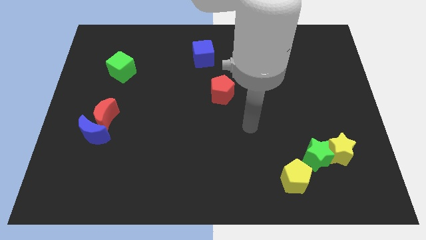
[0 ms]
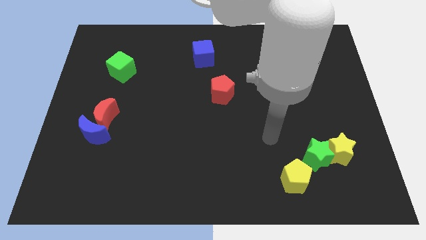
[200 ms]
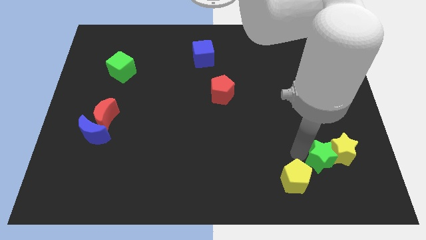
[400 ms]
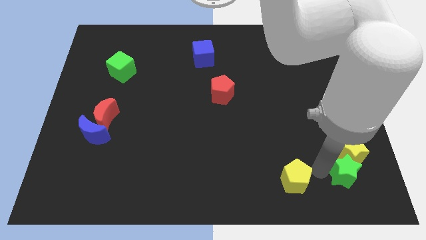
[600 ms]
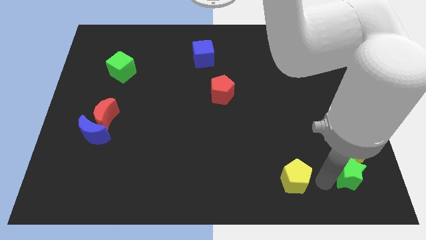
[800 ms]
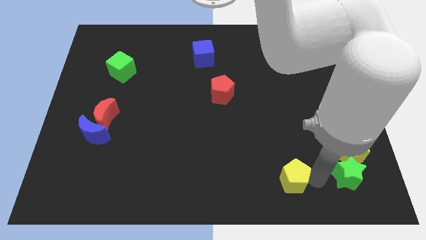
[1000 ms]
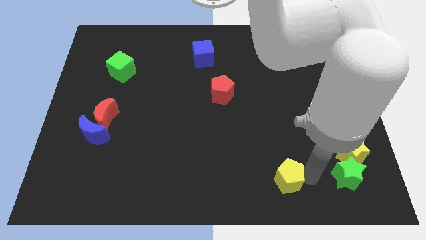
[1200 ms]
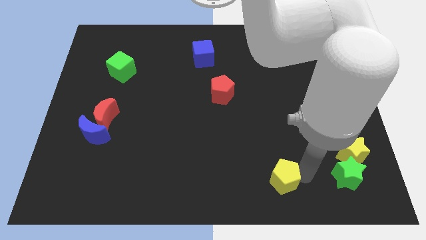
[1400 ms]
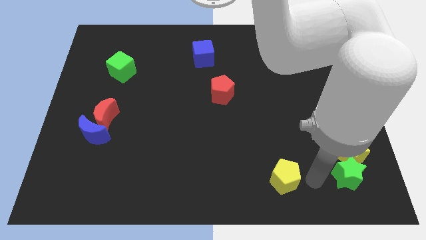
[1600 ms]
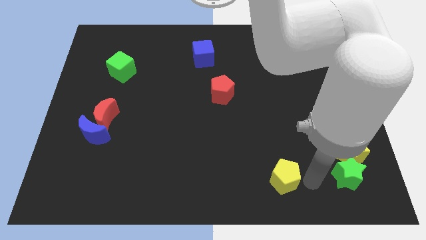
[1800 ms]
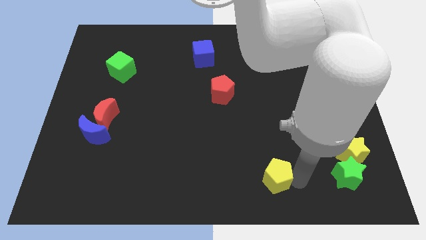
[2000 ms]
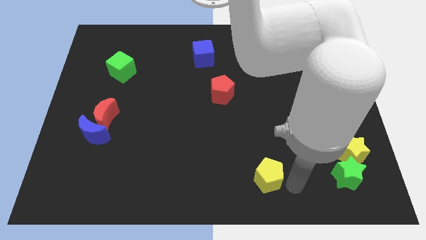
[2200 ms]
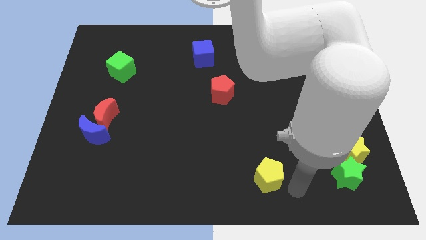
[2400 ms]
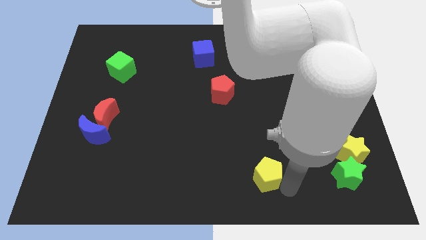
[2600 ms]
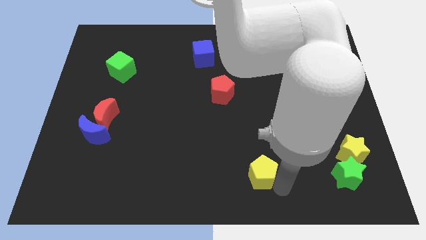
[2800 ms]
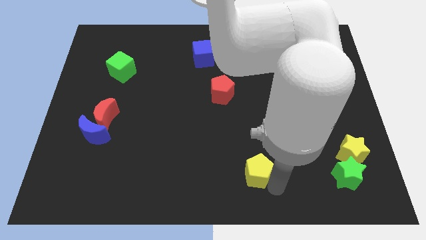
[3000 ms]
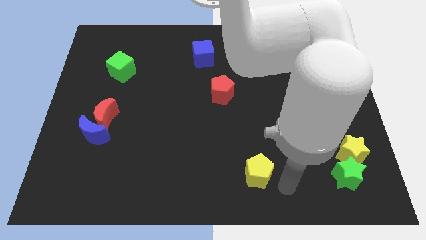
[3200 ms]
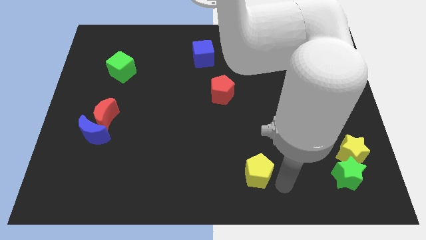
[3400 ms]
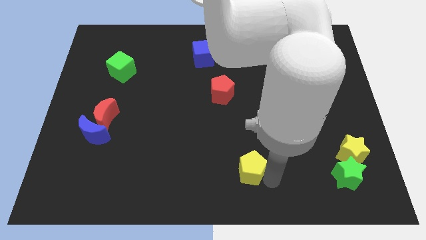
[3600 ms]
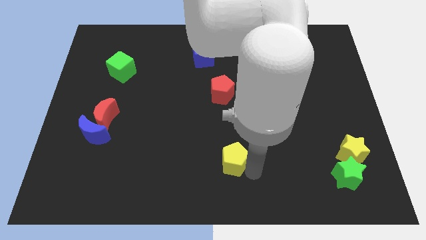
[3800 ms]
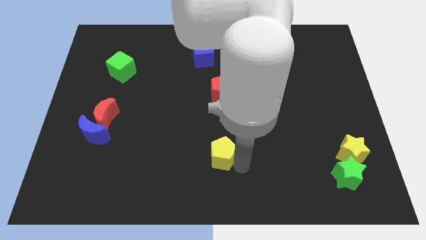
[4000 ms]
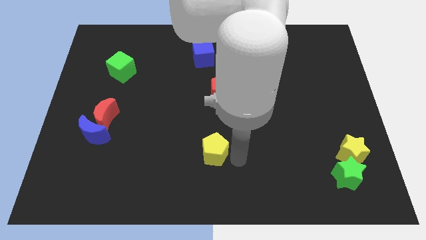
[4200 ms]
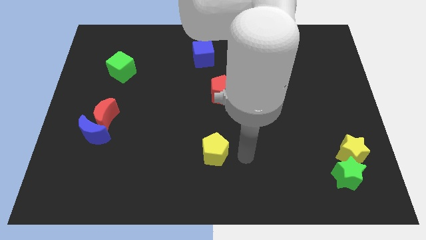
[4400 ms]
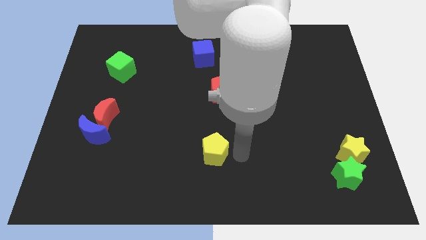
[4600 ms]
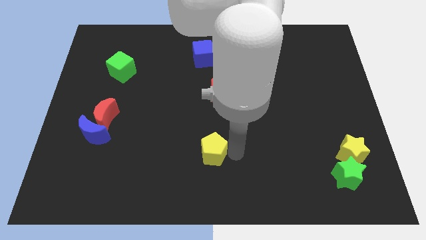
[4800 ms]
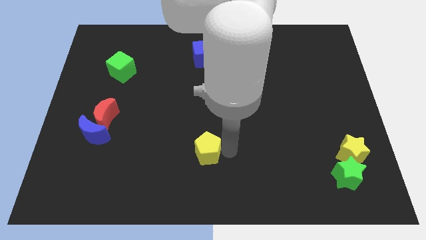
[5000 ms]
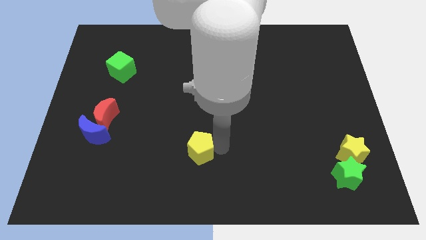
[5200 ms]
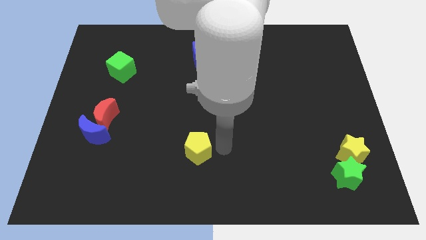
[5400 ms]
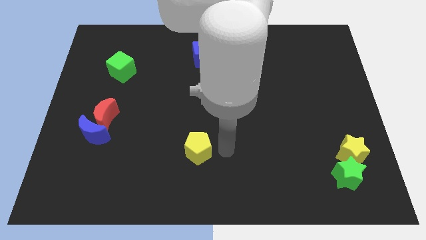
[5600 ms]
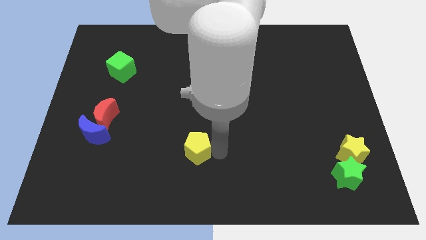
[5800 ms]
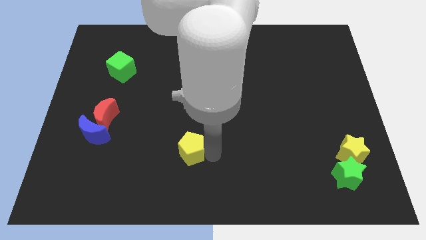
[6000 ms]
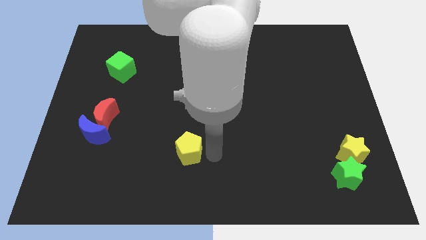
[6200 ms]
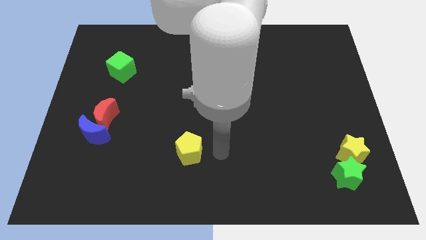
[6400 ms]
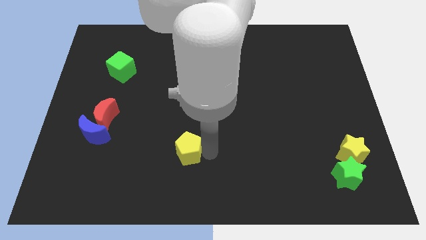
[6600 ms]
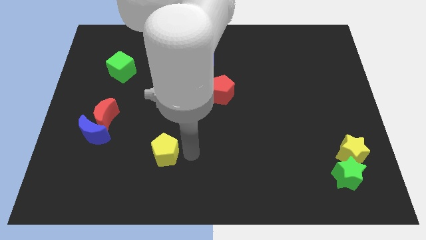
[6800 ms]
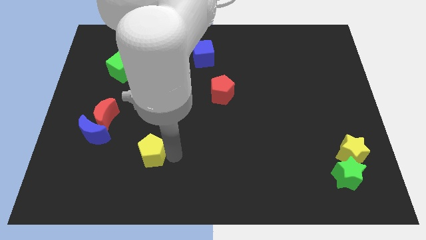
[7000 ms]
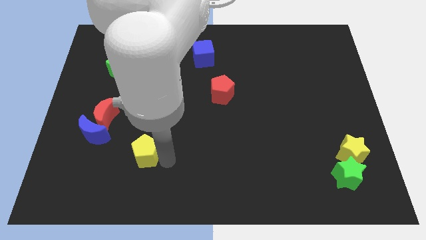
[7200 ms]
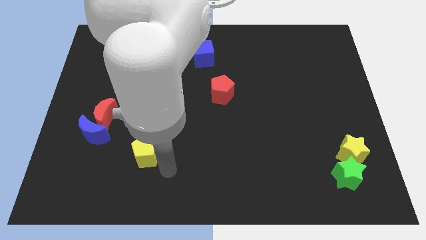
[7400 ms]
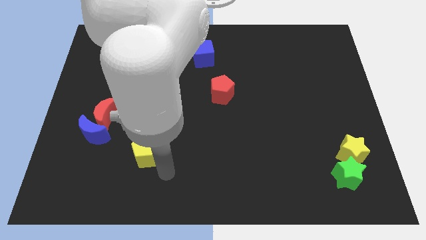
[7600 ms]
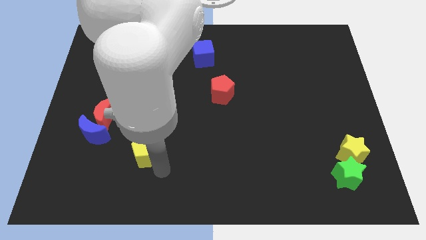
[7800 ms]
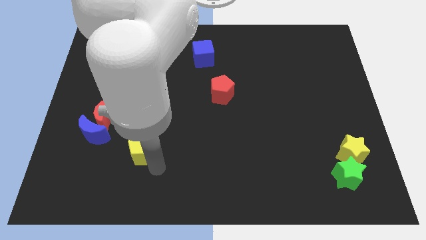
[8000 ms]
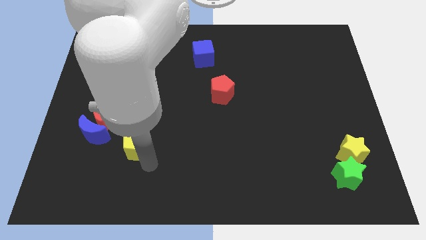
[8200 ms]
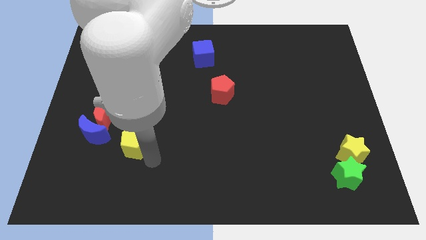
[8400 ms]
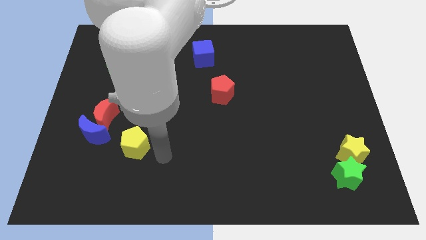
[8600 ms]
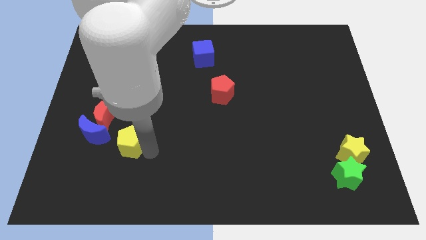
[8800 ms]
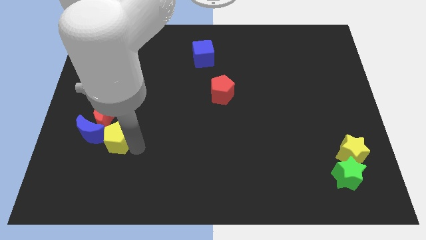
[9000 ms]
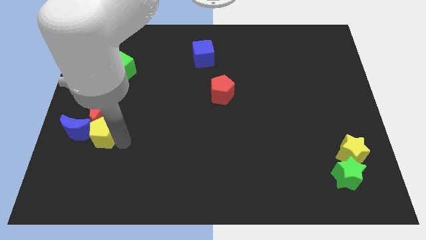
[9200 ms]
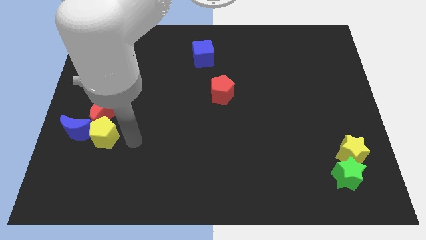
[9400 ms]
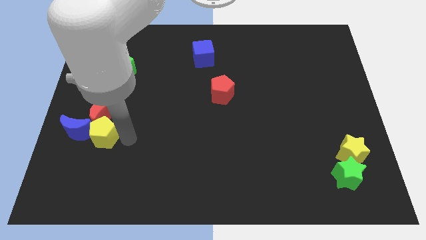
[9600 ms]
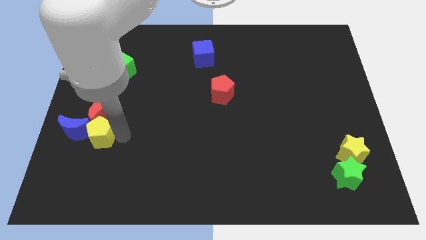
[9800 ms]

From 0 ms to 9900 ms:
push the yellow pentagon towards the blue moon

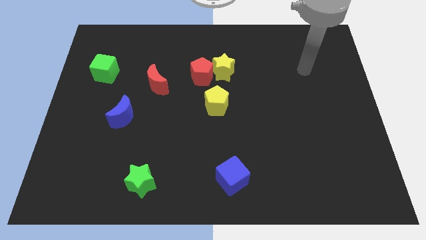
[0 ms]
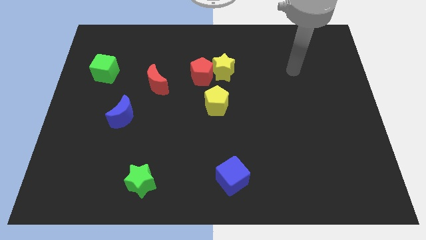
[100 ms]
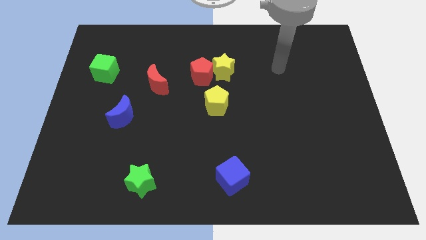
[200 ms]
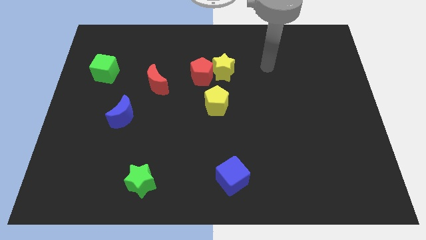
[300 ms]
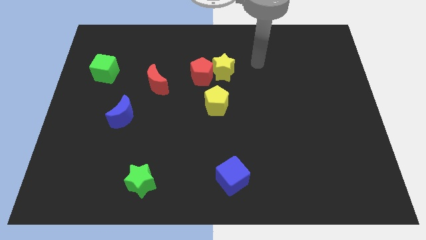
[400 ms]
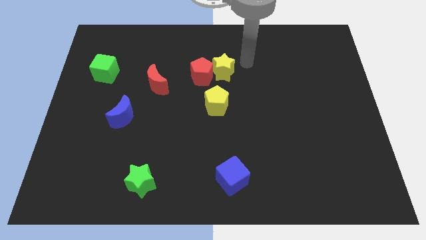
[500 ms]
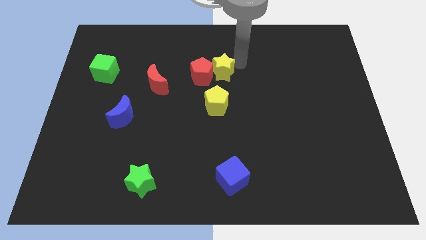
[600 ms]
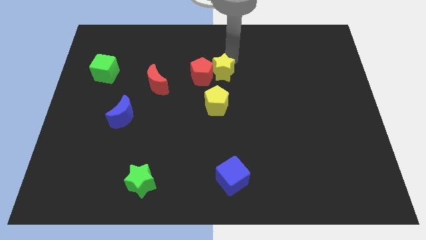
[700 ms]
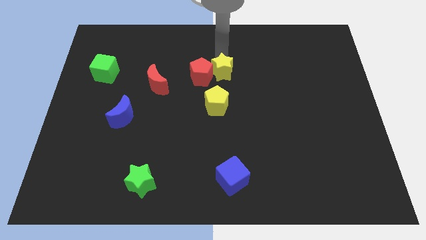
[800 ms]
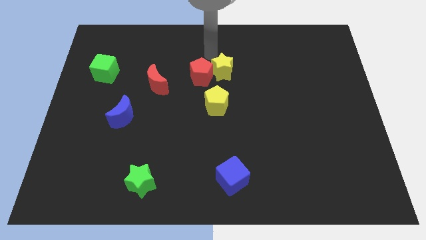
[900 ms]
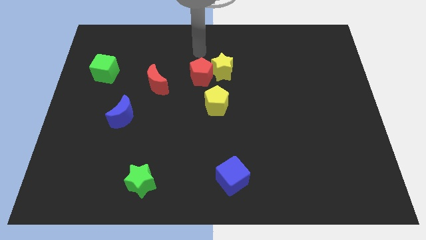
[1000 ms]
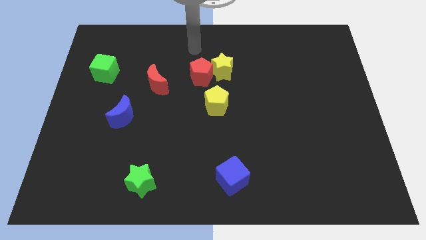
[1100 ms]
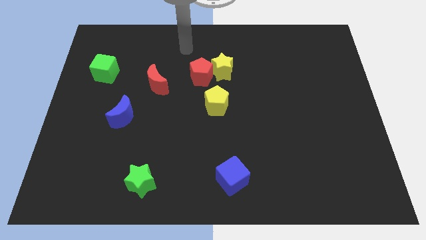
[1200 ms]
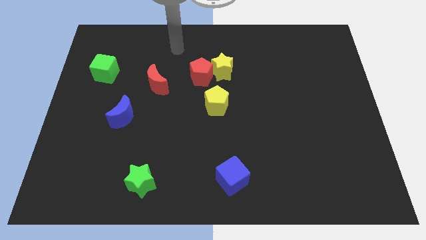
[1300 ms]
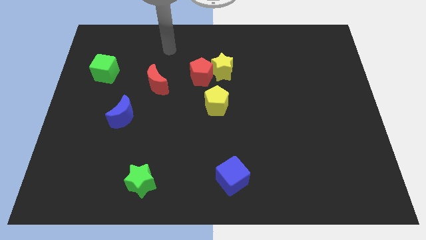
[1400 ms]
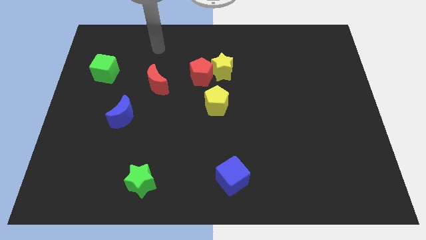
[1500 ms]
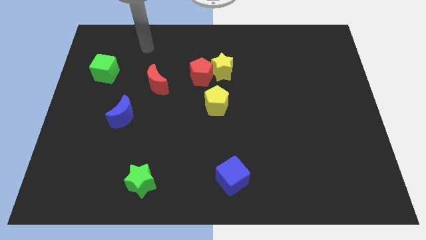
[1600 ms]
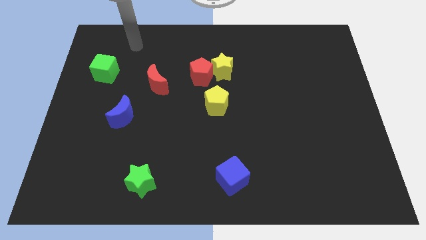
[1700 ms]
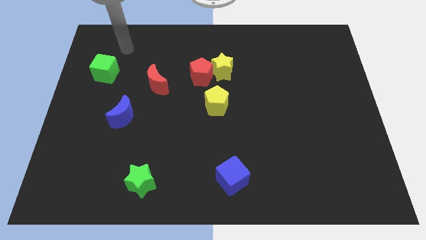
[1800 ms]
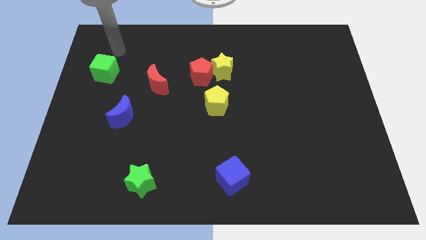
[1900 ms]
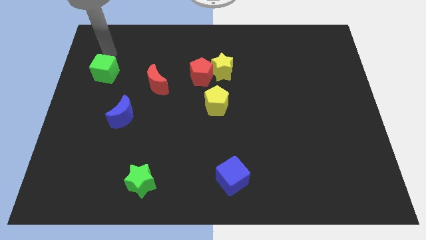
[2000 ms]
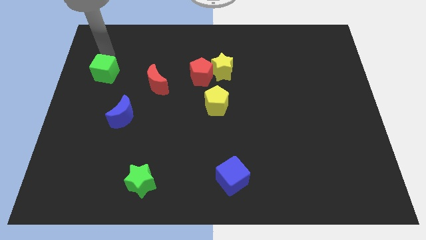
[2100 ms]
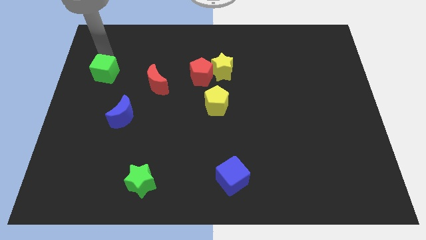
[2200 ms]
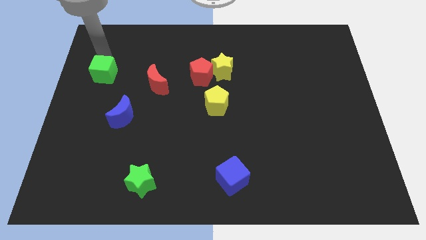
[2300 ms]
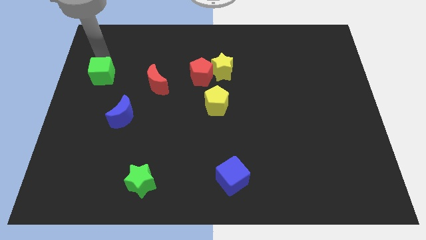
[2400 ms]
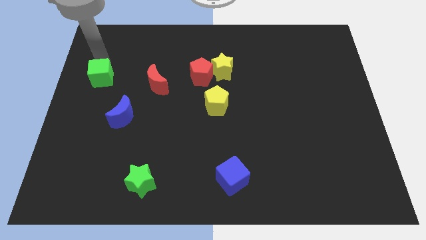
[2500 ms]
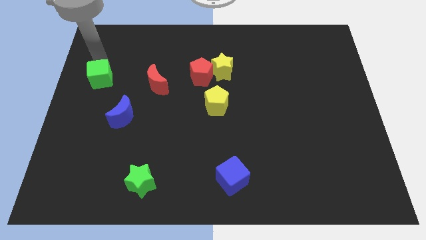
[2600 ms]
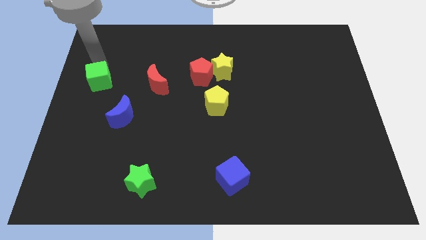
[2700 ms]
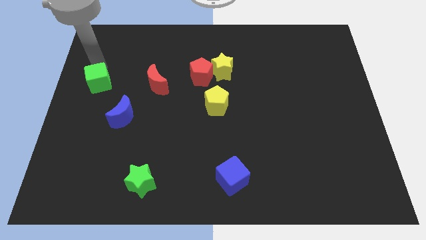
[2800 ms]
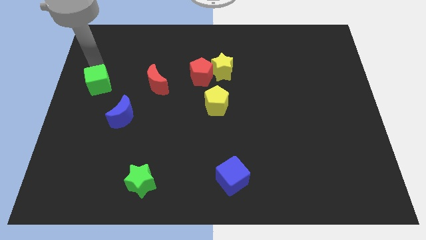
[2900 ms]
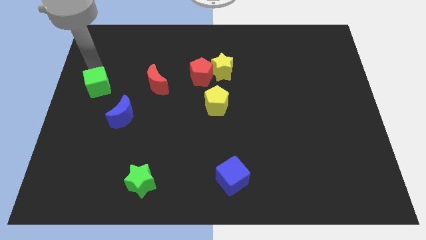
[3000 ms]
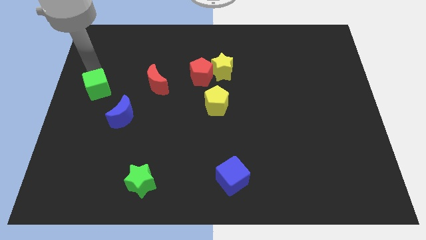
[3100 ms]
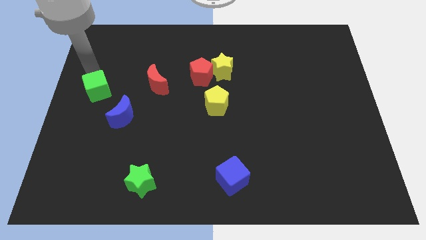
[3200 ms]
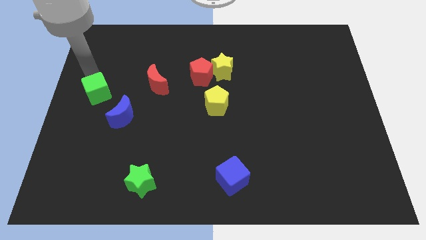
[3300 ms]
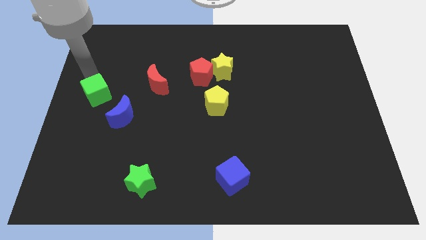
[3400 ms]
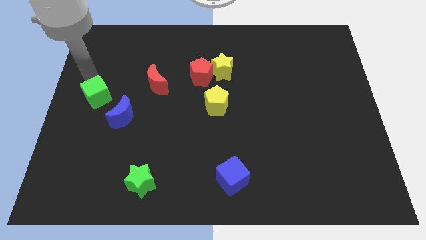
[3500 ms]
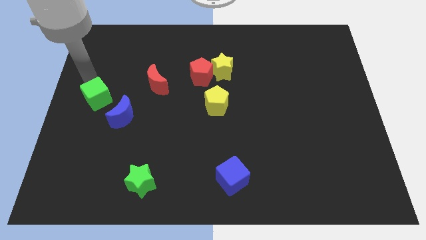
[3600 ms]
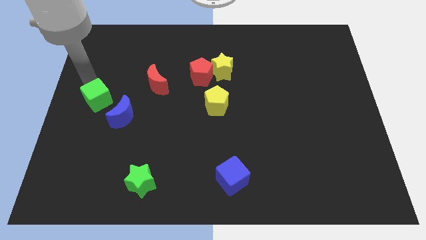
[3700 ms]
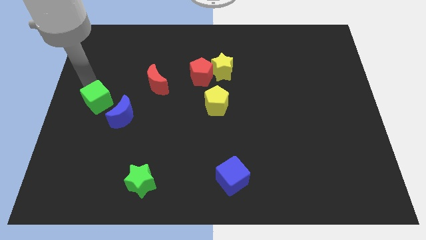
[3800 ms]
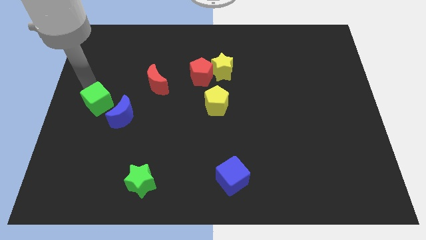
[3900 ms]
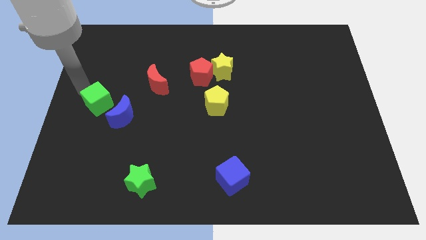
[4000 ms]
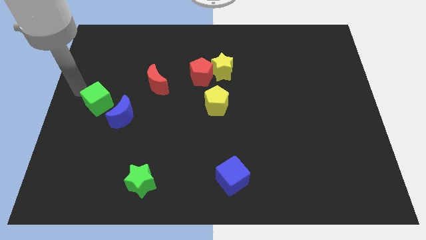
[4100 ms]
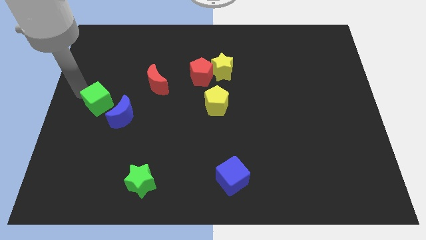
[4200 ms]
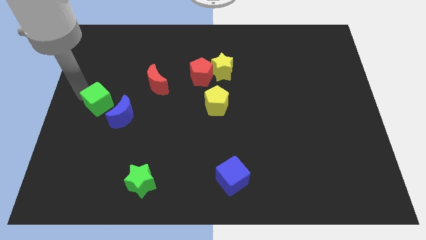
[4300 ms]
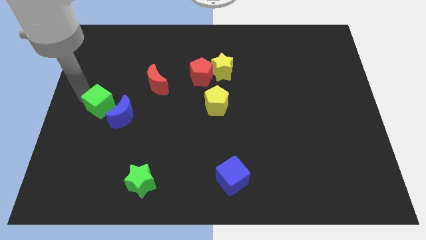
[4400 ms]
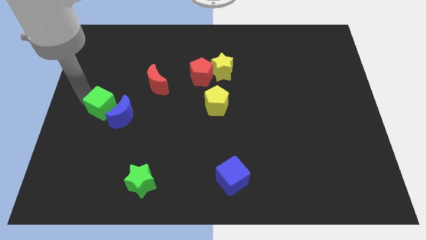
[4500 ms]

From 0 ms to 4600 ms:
move the green cube next to the blue moon
